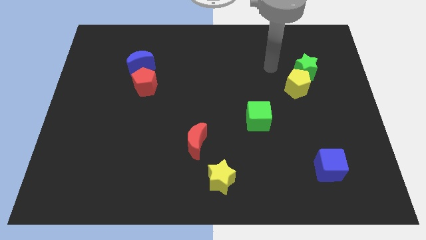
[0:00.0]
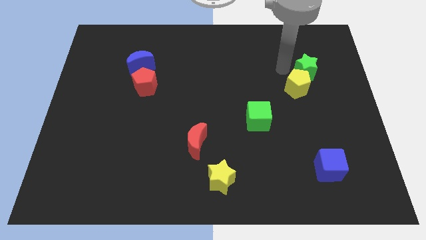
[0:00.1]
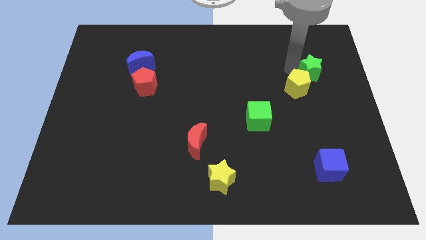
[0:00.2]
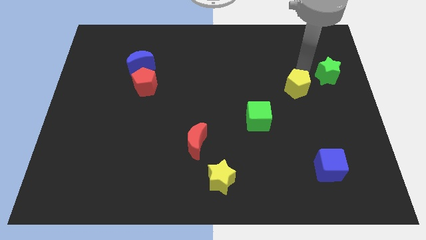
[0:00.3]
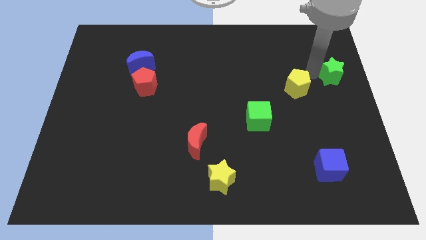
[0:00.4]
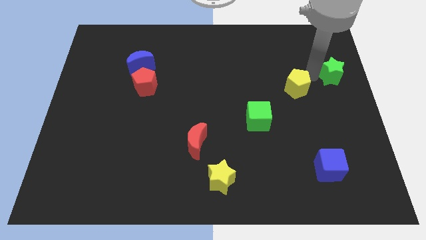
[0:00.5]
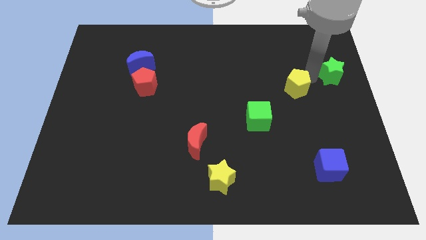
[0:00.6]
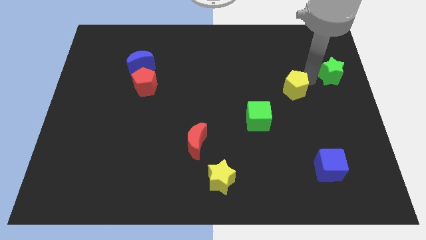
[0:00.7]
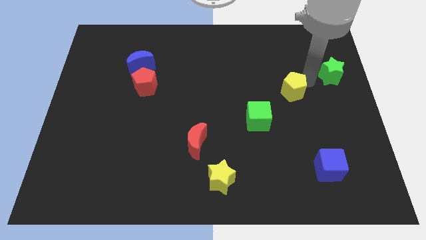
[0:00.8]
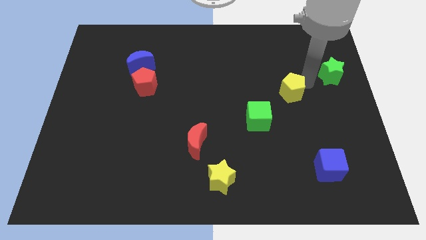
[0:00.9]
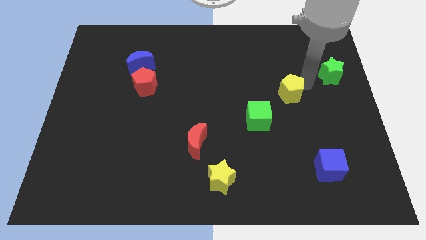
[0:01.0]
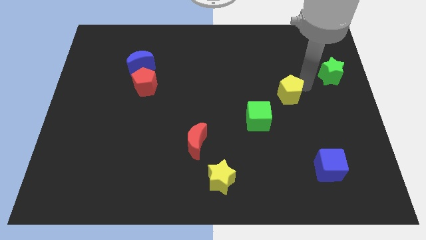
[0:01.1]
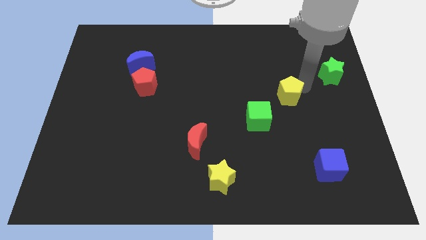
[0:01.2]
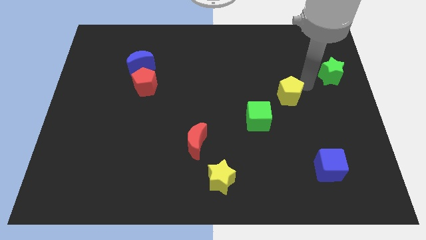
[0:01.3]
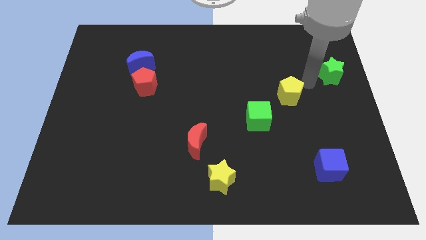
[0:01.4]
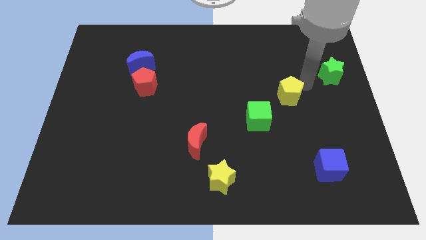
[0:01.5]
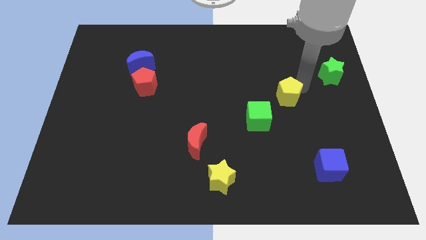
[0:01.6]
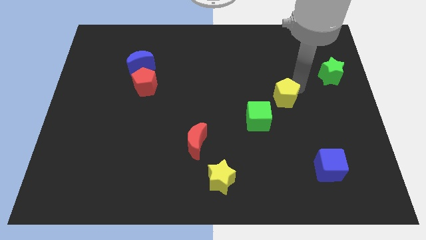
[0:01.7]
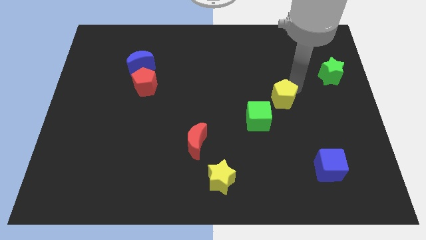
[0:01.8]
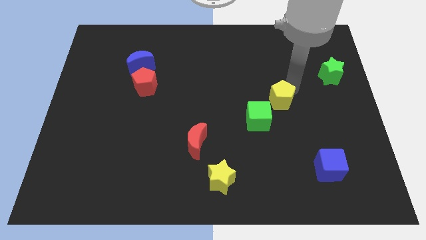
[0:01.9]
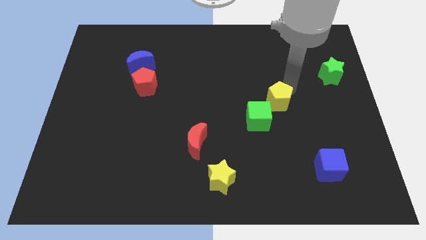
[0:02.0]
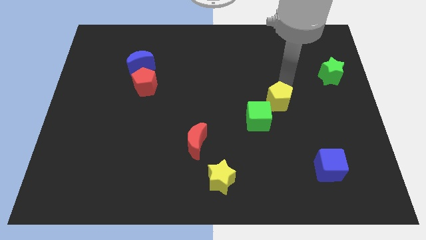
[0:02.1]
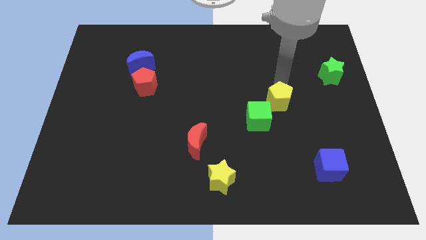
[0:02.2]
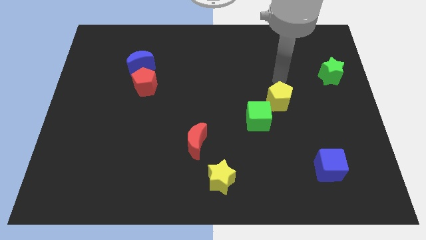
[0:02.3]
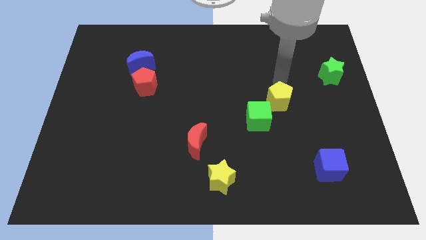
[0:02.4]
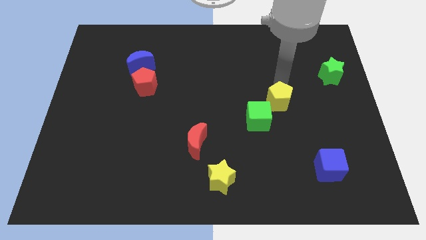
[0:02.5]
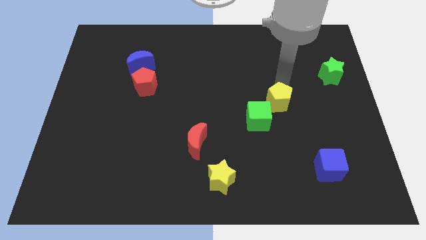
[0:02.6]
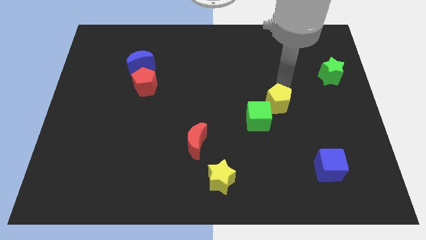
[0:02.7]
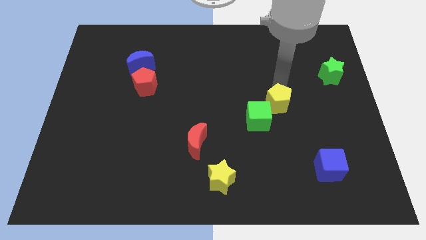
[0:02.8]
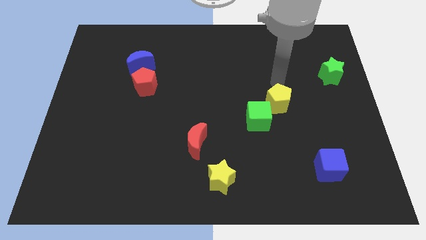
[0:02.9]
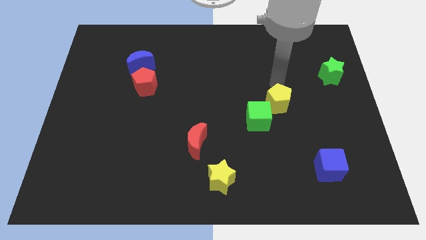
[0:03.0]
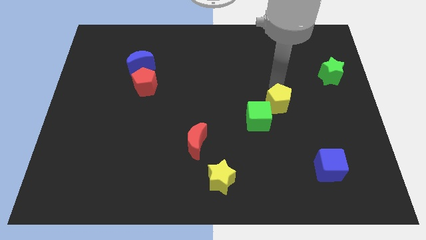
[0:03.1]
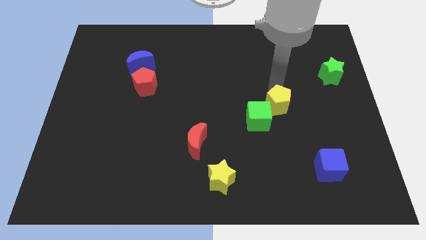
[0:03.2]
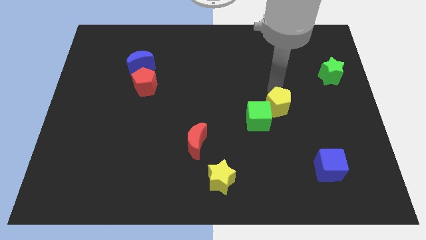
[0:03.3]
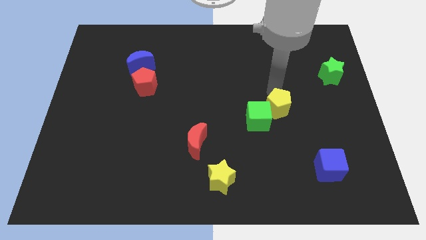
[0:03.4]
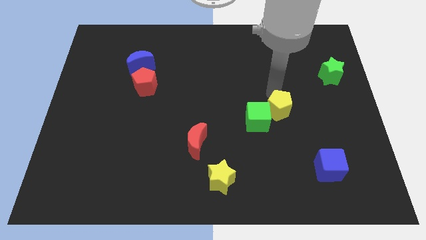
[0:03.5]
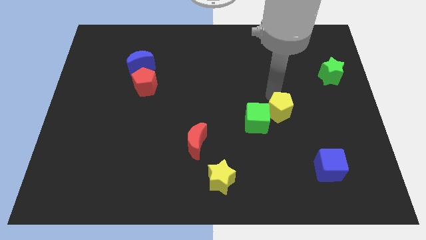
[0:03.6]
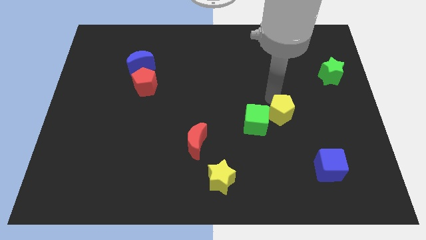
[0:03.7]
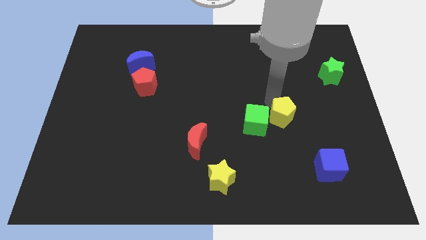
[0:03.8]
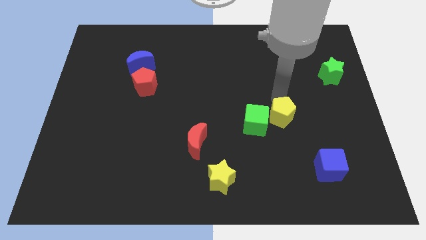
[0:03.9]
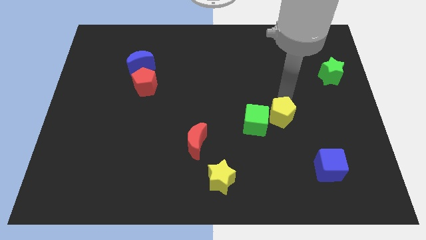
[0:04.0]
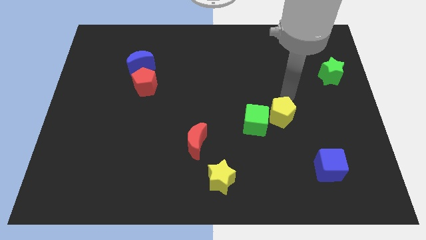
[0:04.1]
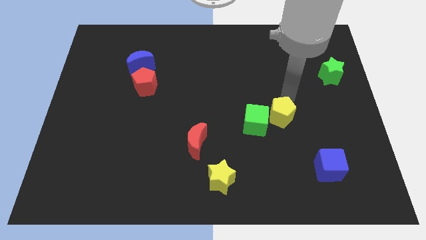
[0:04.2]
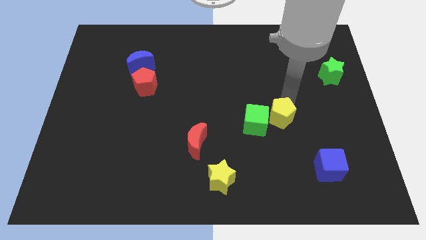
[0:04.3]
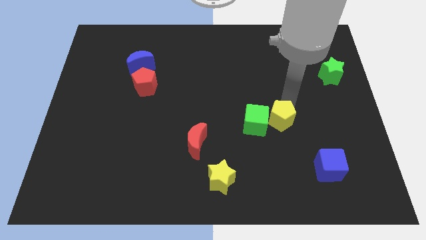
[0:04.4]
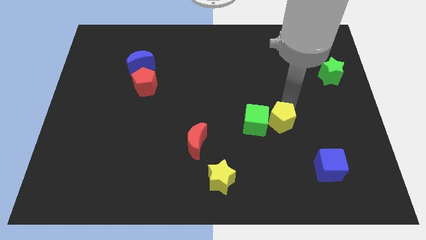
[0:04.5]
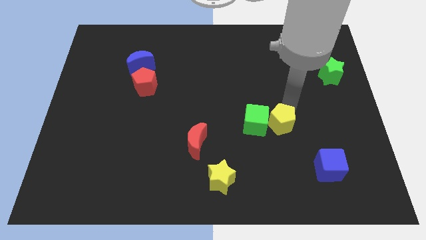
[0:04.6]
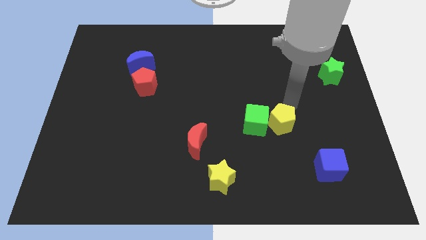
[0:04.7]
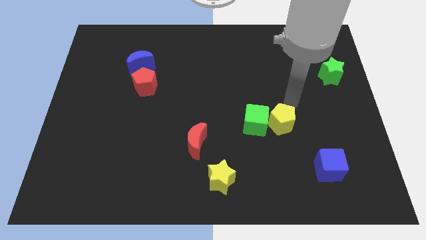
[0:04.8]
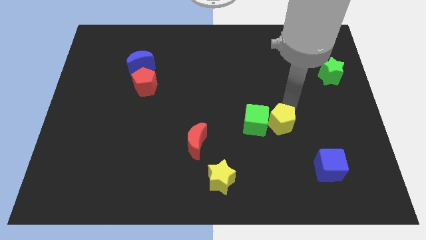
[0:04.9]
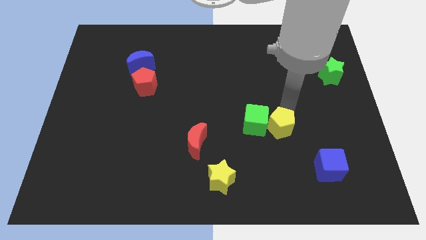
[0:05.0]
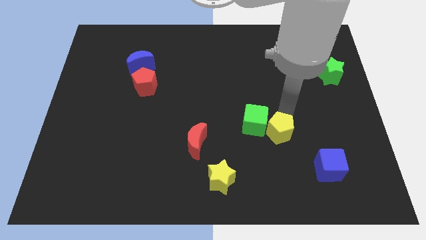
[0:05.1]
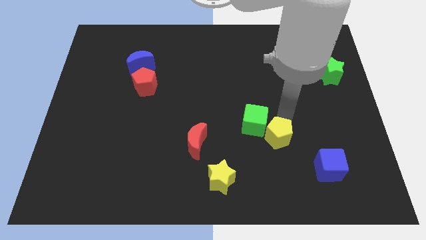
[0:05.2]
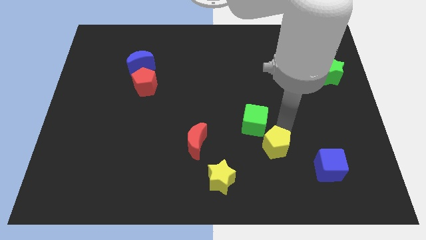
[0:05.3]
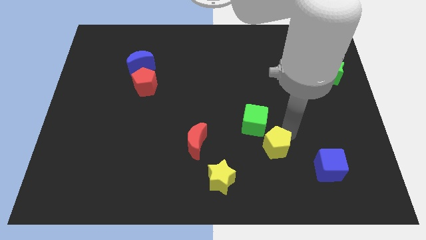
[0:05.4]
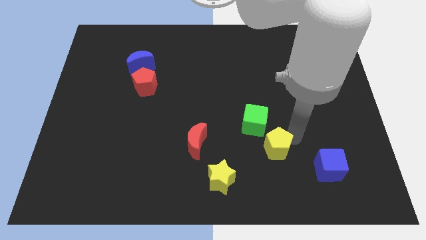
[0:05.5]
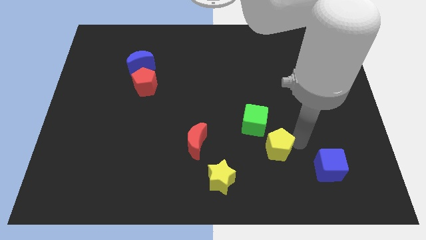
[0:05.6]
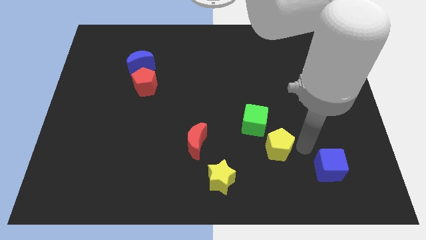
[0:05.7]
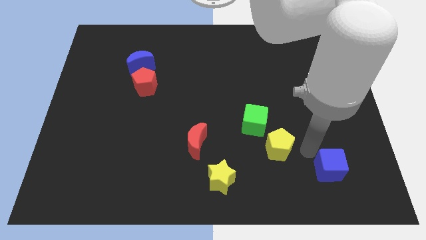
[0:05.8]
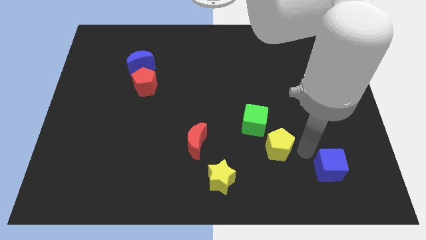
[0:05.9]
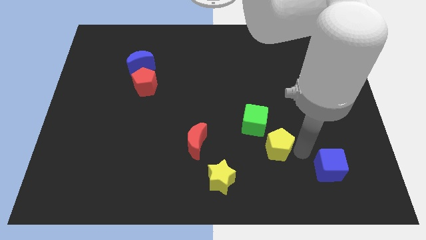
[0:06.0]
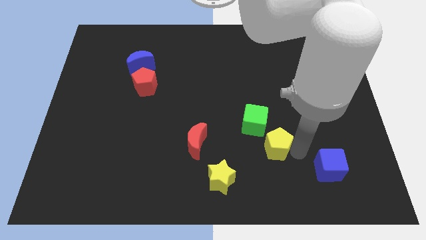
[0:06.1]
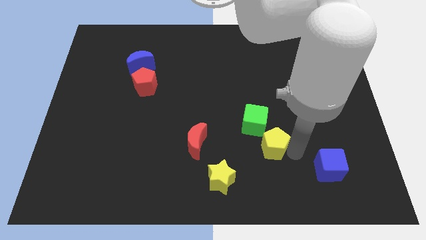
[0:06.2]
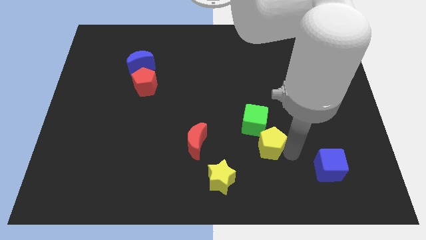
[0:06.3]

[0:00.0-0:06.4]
move the yellow pentagon to the right side of the red moon
